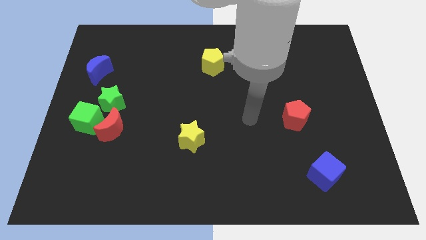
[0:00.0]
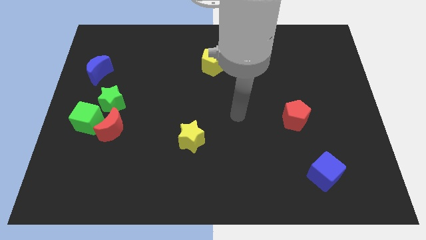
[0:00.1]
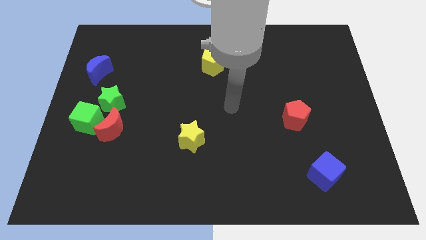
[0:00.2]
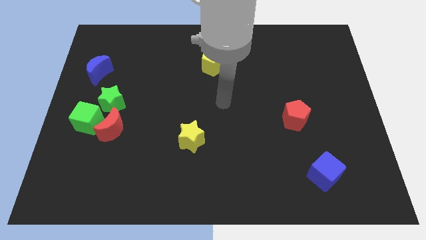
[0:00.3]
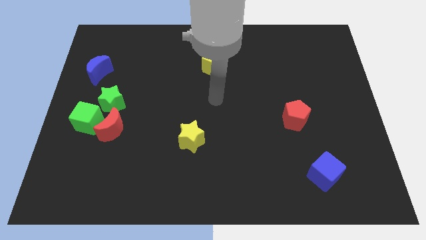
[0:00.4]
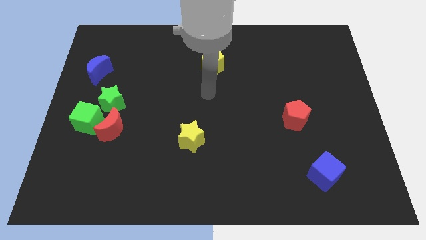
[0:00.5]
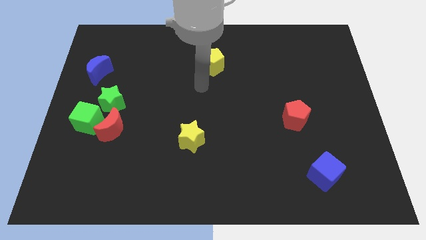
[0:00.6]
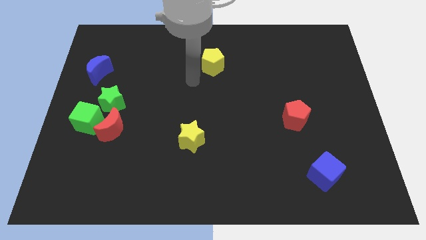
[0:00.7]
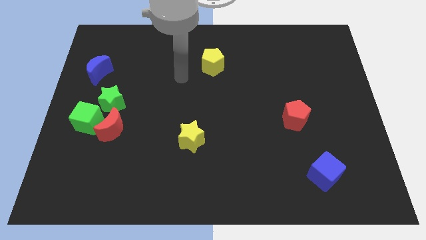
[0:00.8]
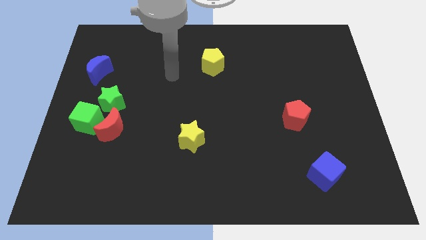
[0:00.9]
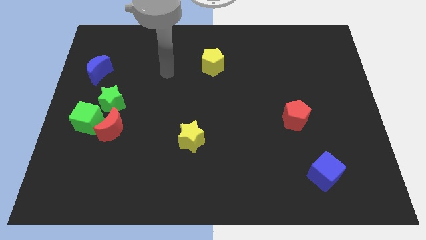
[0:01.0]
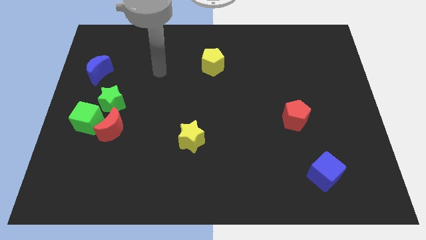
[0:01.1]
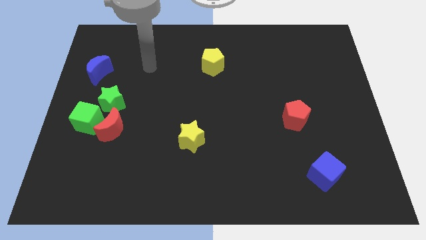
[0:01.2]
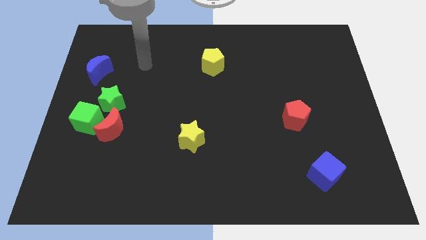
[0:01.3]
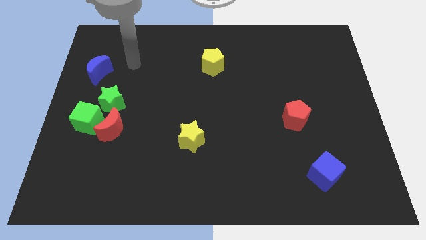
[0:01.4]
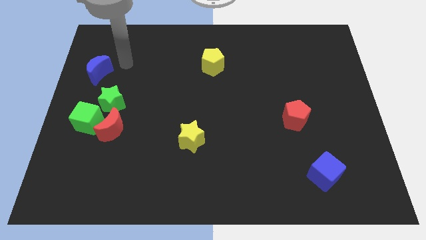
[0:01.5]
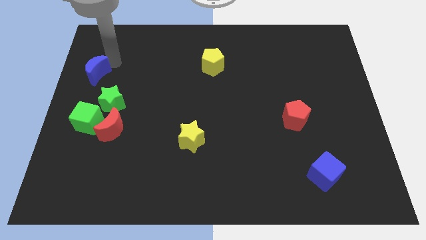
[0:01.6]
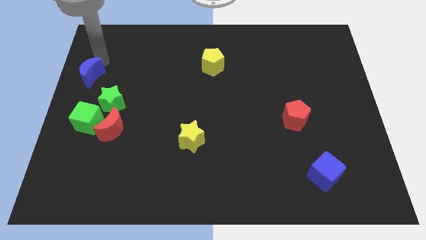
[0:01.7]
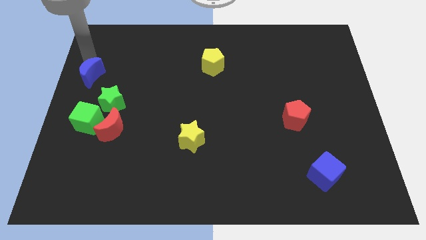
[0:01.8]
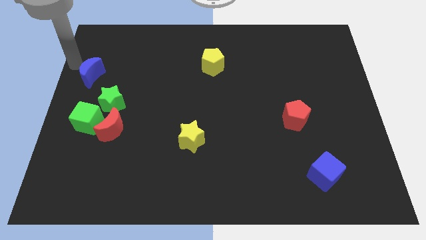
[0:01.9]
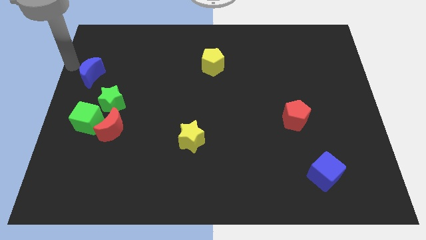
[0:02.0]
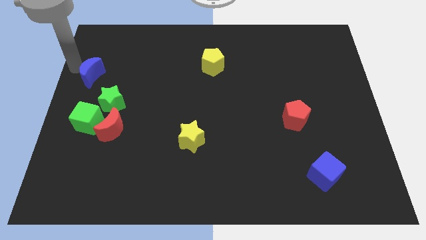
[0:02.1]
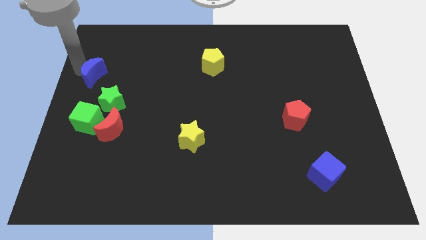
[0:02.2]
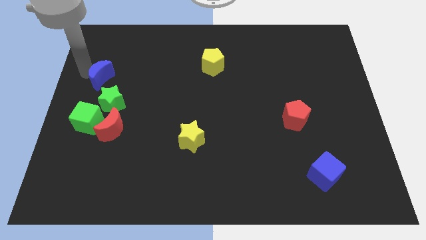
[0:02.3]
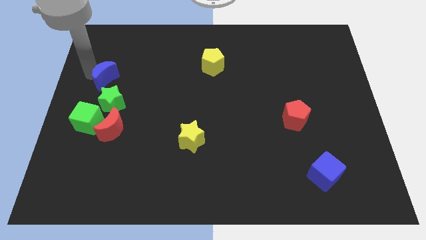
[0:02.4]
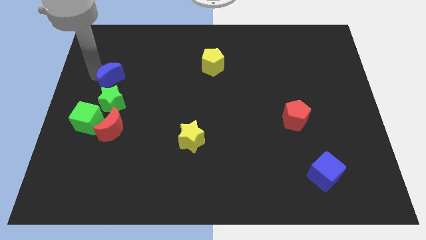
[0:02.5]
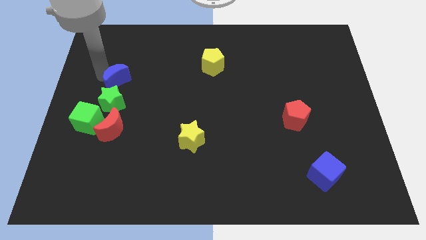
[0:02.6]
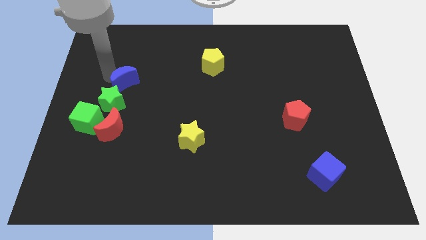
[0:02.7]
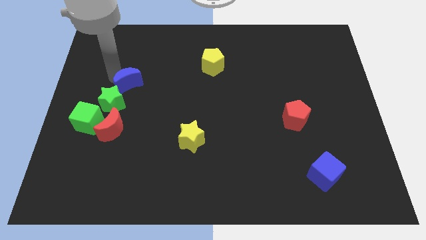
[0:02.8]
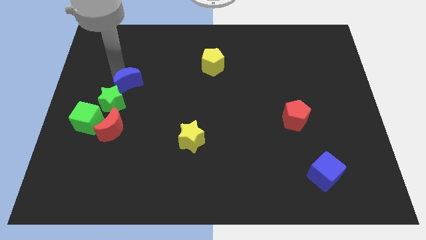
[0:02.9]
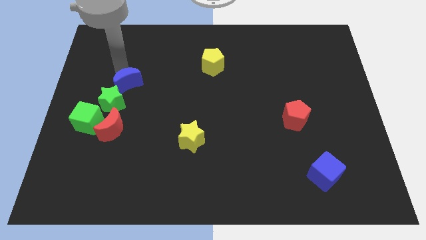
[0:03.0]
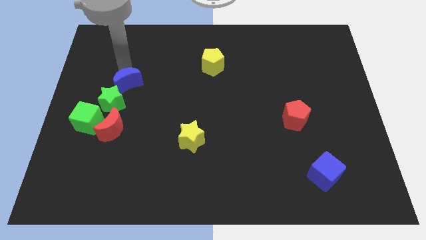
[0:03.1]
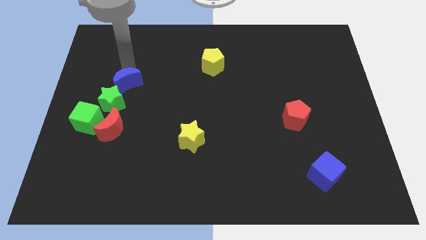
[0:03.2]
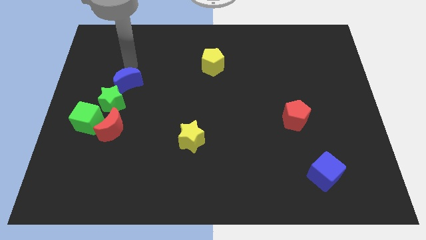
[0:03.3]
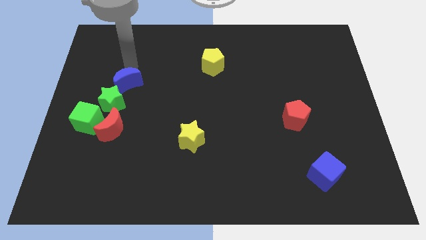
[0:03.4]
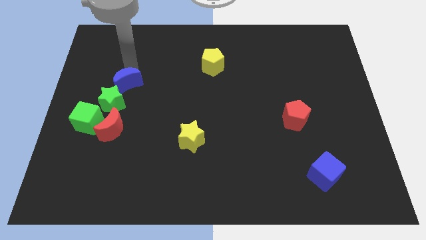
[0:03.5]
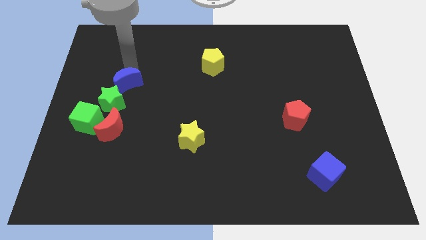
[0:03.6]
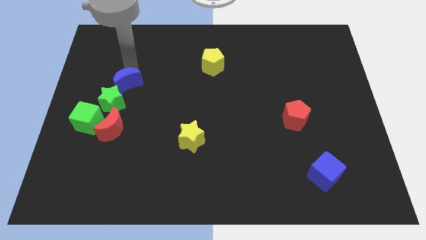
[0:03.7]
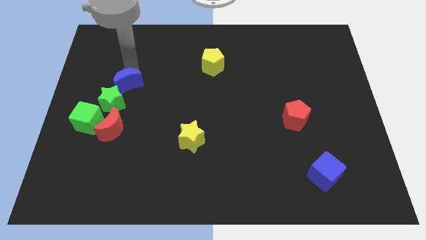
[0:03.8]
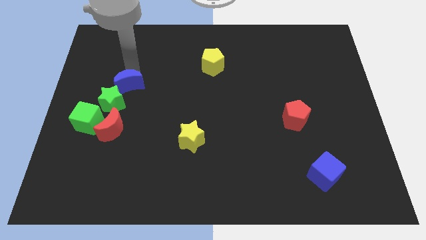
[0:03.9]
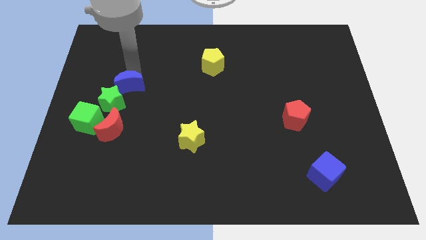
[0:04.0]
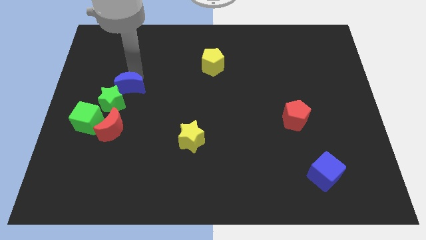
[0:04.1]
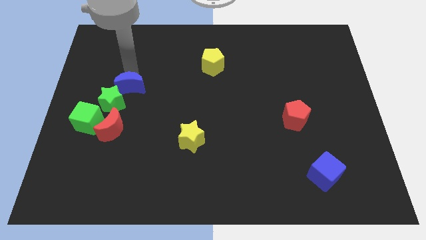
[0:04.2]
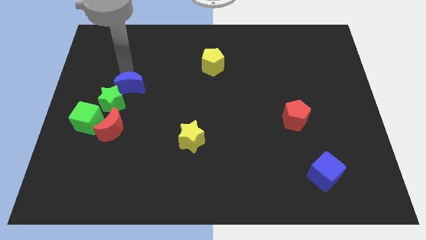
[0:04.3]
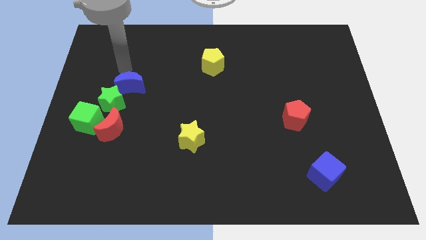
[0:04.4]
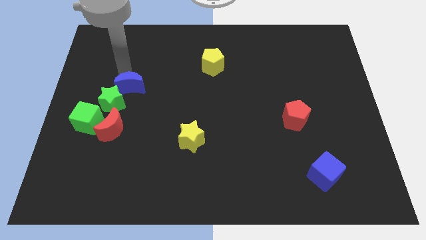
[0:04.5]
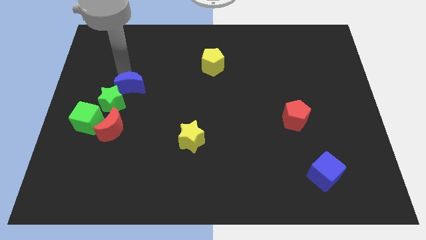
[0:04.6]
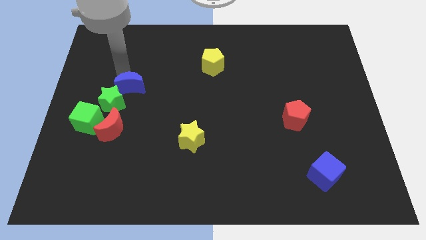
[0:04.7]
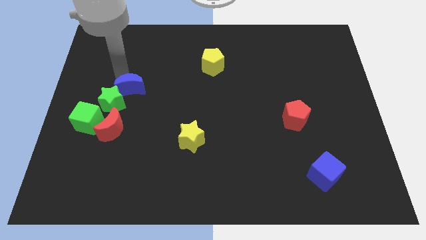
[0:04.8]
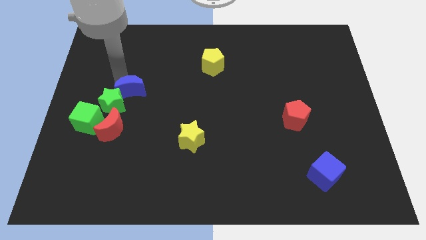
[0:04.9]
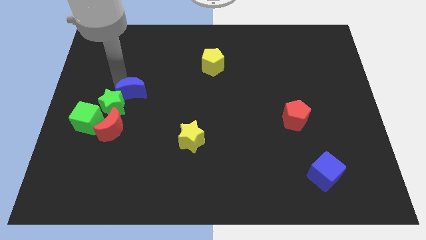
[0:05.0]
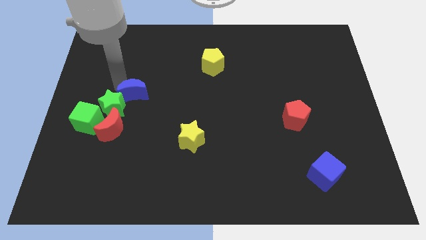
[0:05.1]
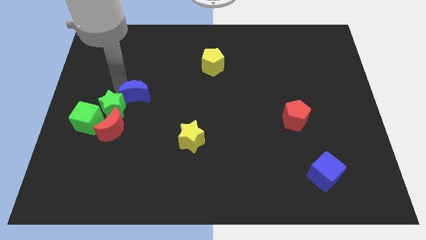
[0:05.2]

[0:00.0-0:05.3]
put the blue moon to the top right side of the red moon

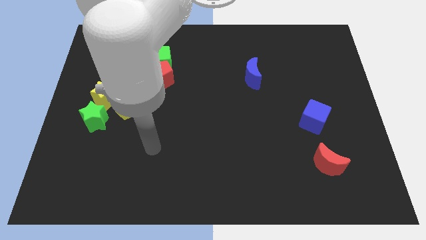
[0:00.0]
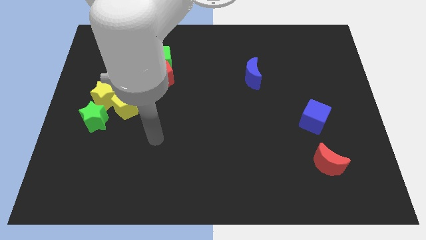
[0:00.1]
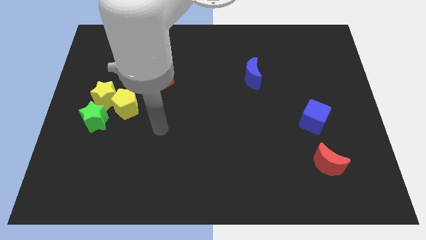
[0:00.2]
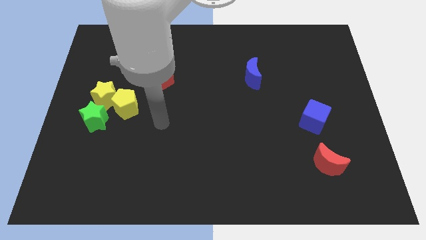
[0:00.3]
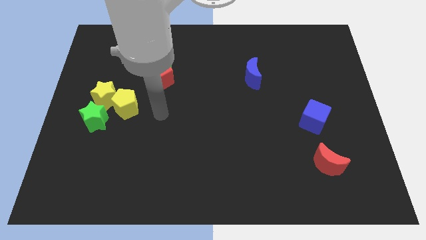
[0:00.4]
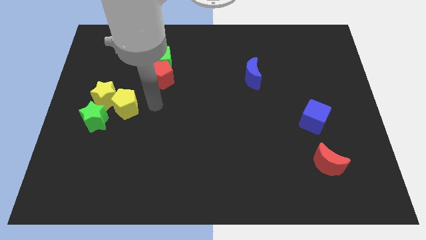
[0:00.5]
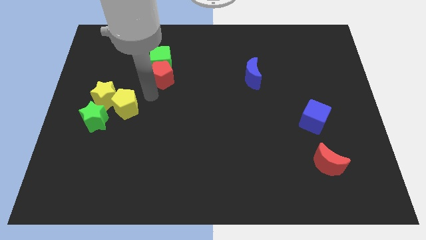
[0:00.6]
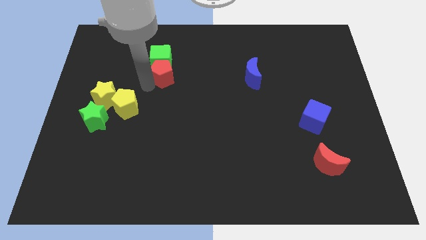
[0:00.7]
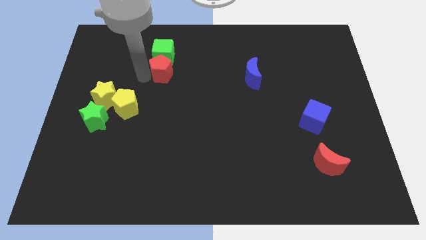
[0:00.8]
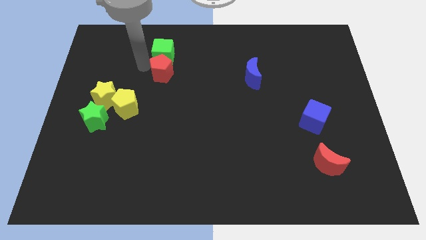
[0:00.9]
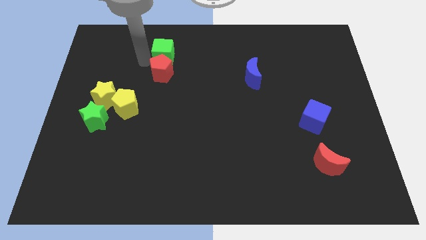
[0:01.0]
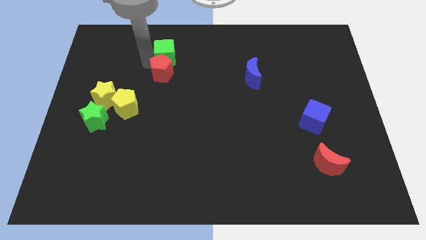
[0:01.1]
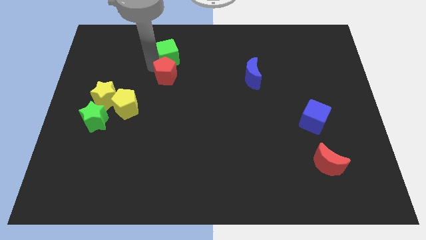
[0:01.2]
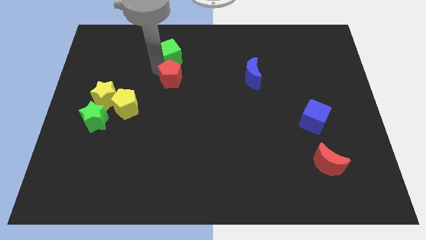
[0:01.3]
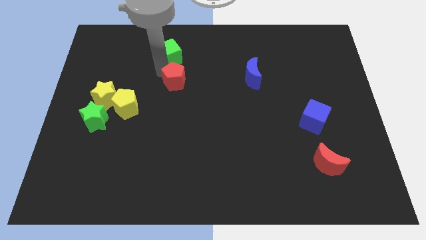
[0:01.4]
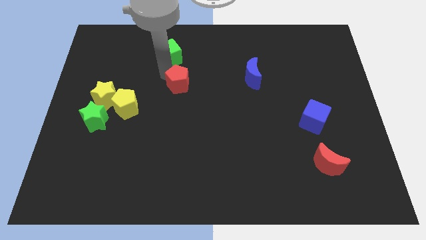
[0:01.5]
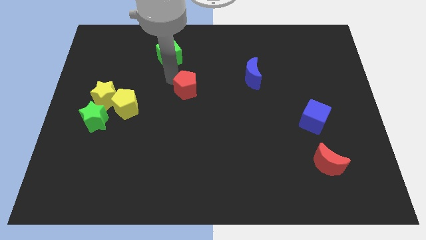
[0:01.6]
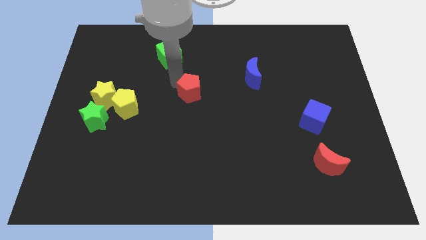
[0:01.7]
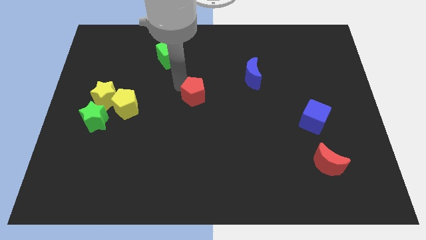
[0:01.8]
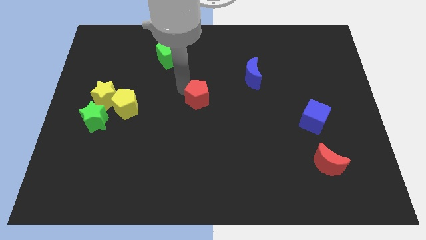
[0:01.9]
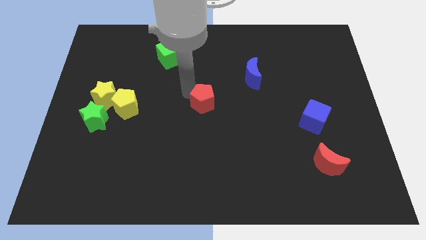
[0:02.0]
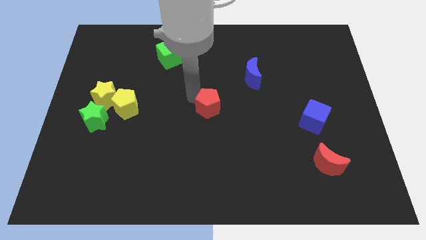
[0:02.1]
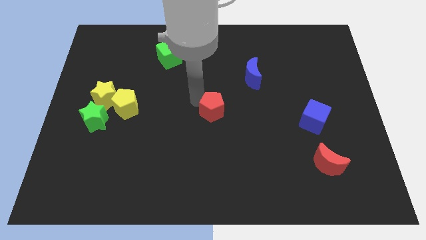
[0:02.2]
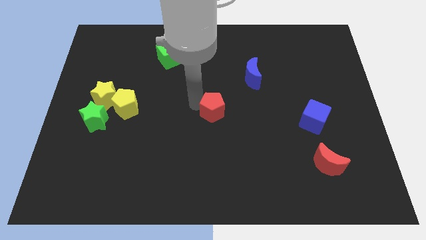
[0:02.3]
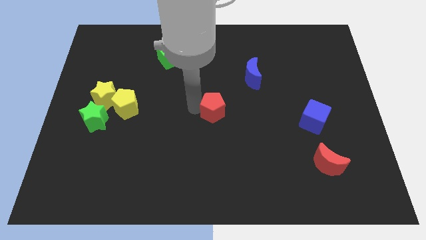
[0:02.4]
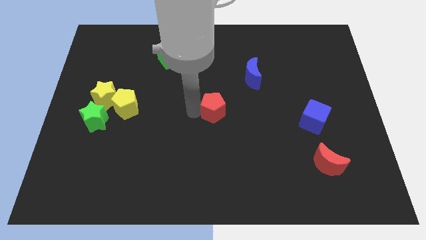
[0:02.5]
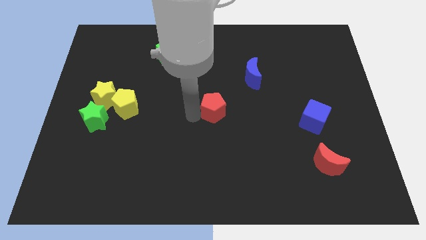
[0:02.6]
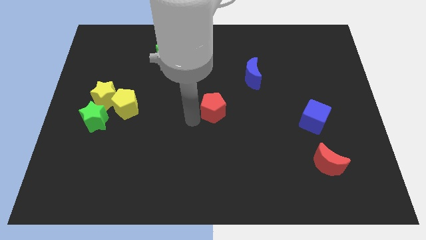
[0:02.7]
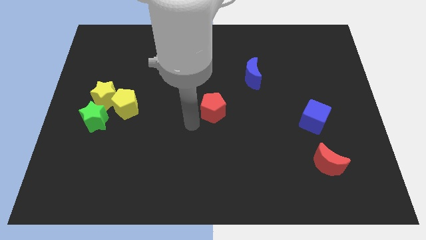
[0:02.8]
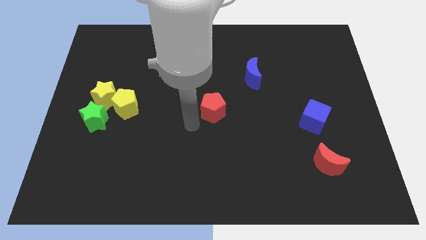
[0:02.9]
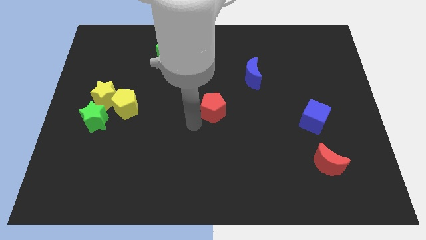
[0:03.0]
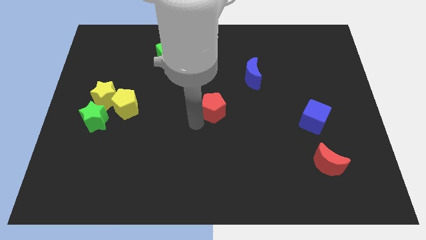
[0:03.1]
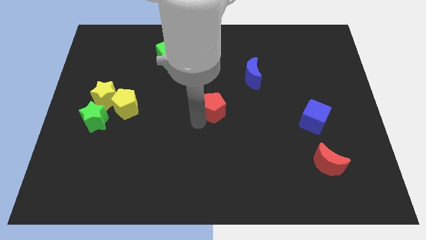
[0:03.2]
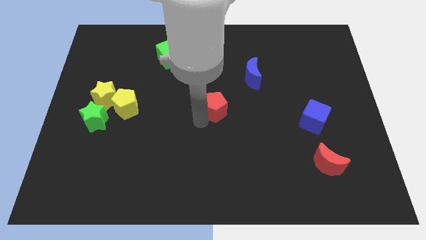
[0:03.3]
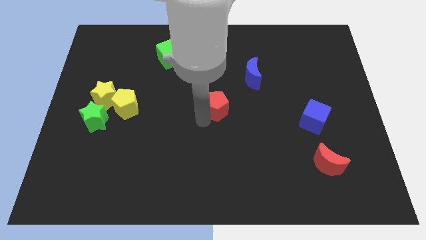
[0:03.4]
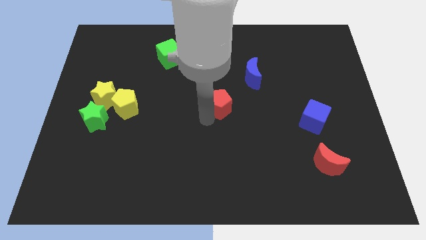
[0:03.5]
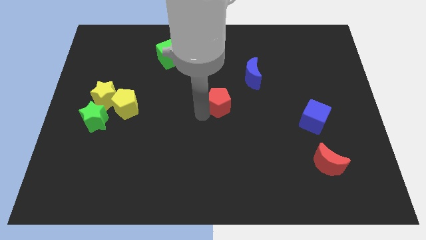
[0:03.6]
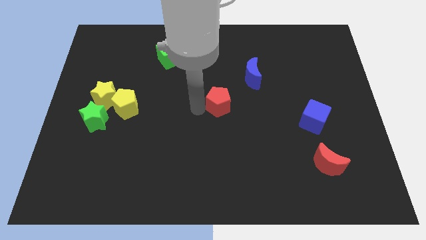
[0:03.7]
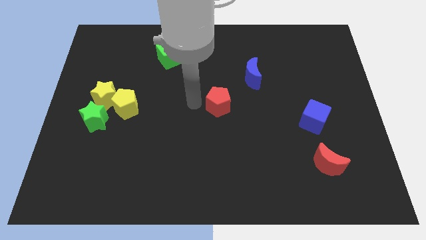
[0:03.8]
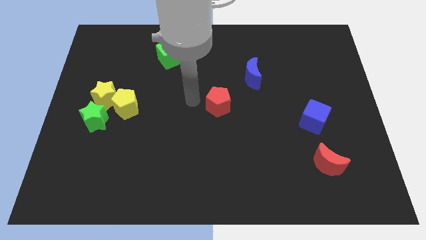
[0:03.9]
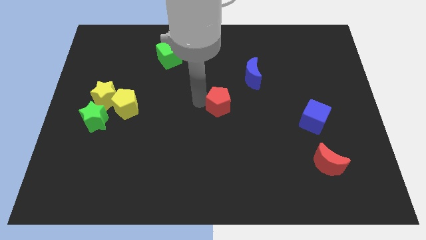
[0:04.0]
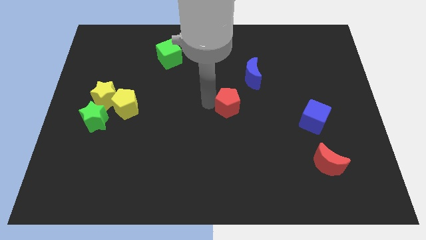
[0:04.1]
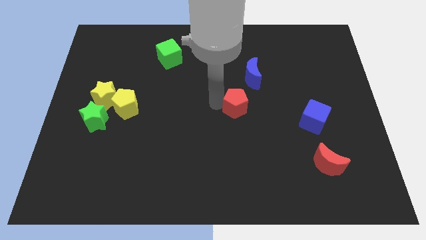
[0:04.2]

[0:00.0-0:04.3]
move the red pentagon to the bottom side of the blue moon
